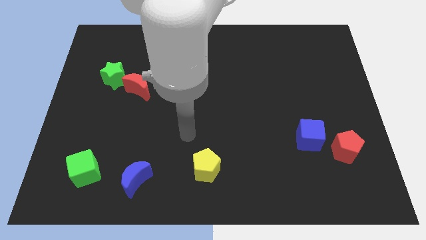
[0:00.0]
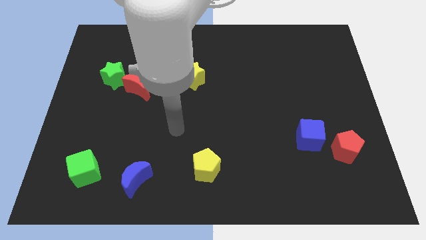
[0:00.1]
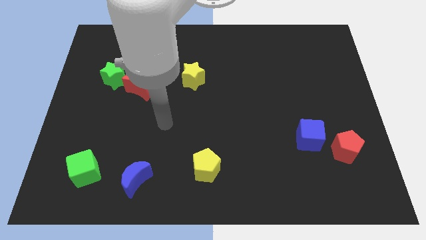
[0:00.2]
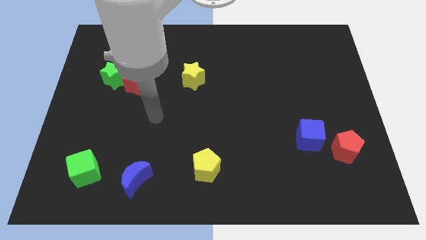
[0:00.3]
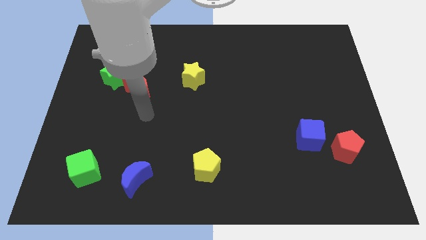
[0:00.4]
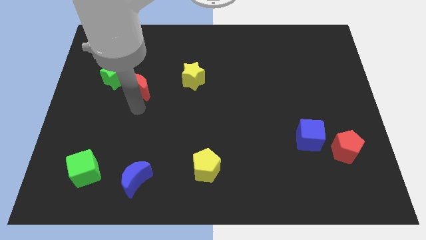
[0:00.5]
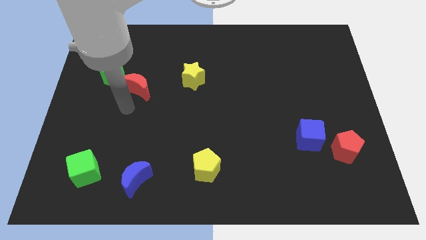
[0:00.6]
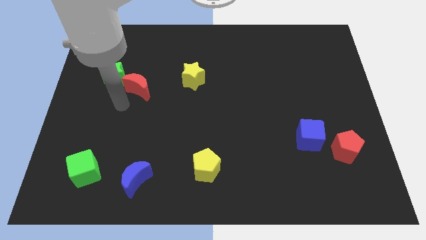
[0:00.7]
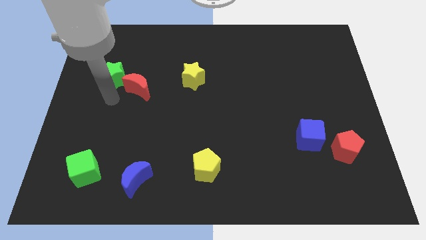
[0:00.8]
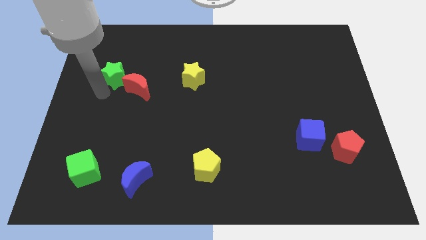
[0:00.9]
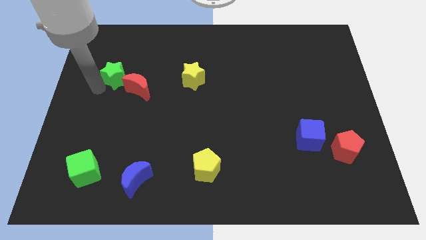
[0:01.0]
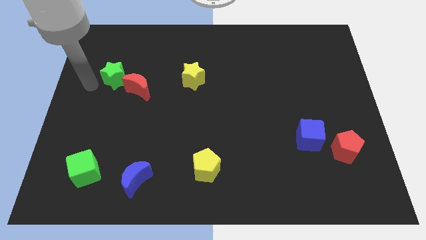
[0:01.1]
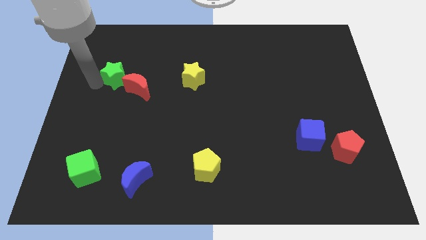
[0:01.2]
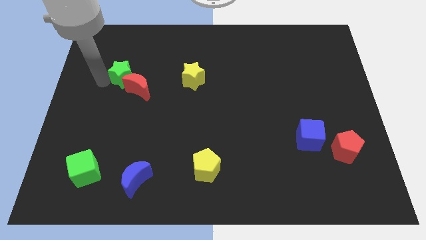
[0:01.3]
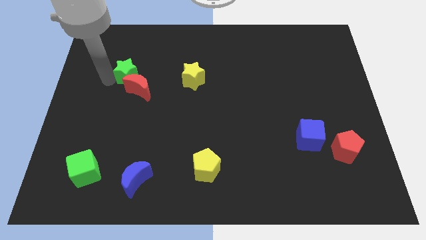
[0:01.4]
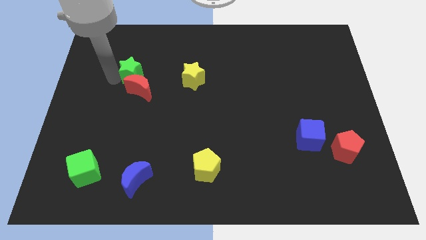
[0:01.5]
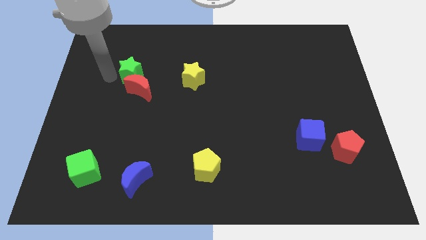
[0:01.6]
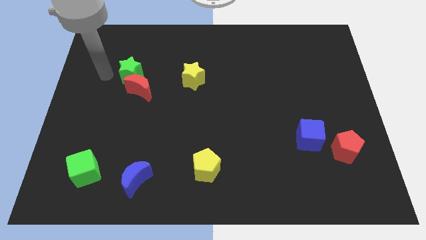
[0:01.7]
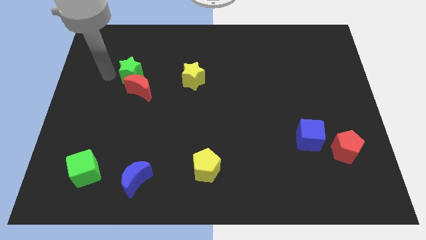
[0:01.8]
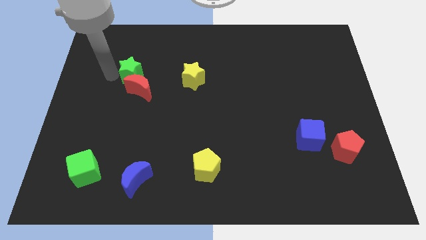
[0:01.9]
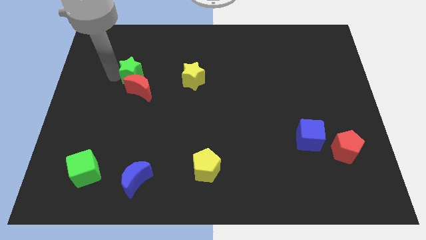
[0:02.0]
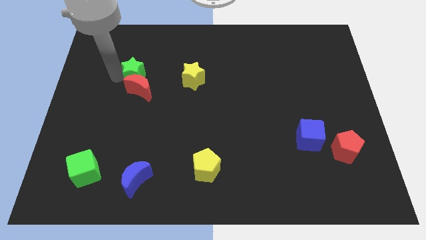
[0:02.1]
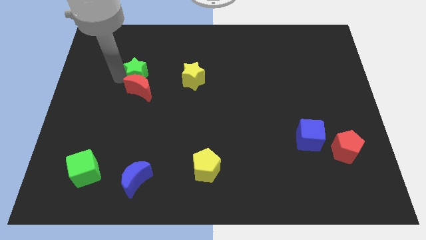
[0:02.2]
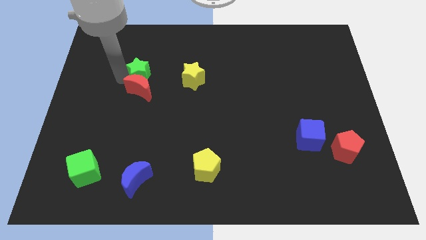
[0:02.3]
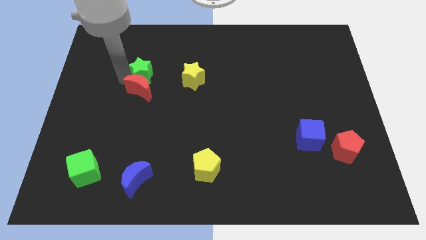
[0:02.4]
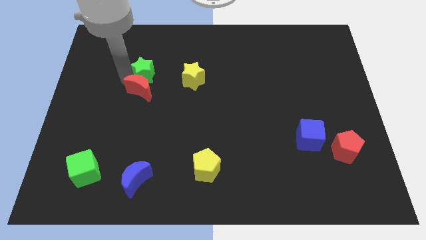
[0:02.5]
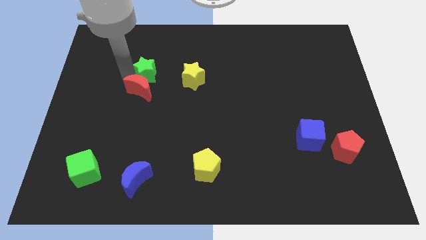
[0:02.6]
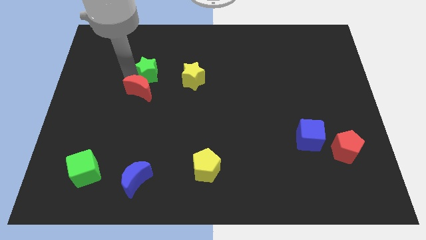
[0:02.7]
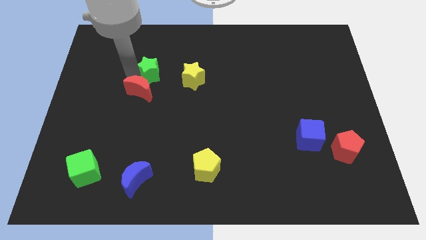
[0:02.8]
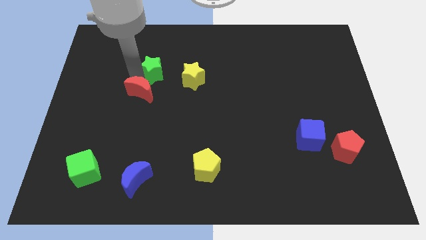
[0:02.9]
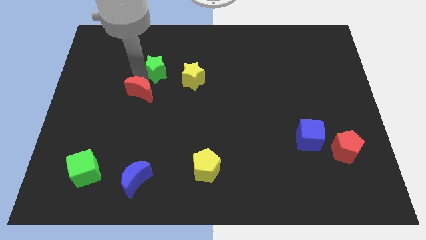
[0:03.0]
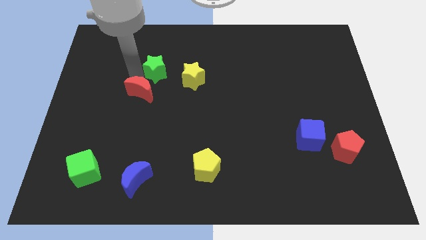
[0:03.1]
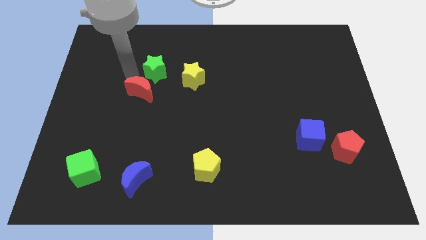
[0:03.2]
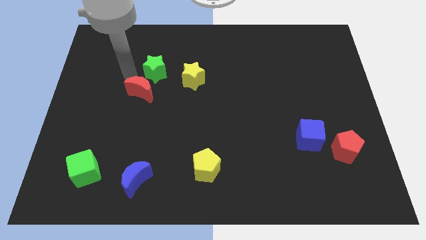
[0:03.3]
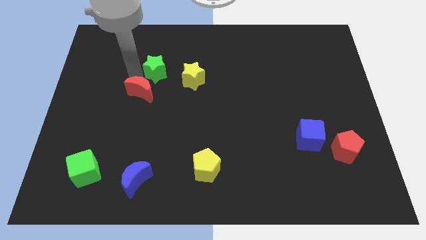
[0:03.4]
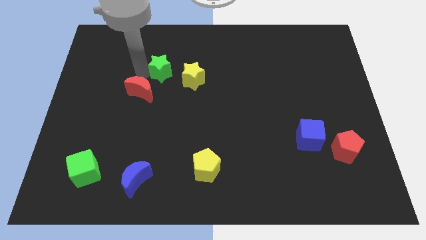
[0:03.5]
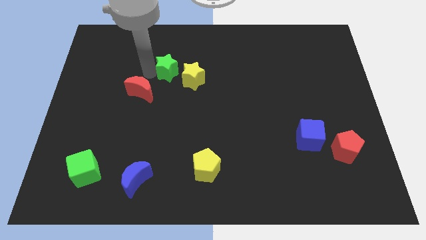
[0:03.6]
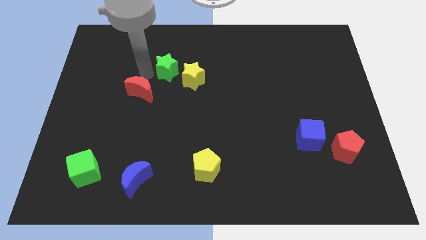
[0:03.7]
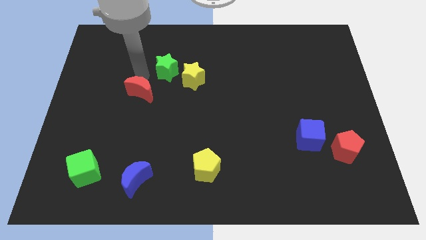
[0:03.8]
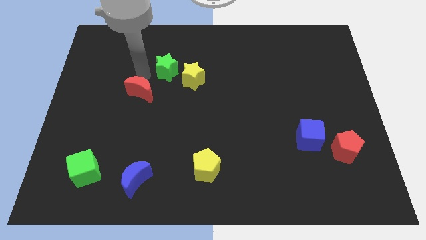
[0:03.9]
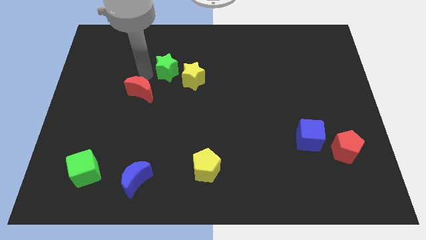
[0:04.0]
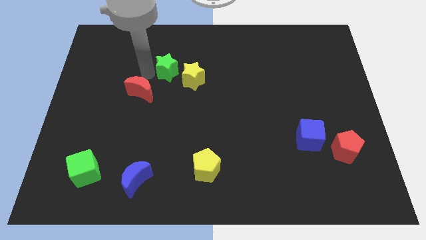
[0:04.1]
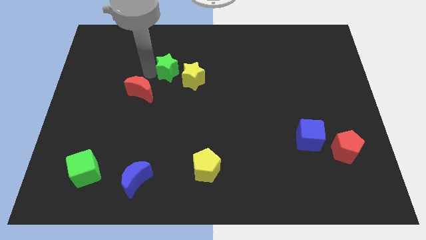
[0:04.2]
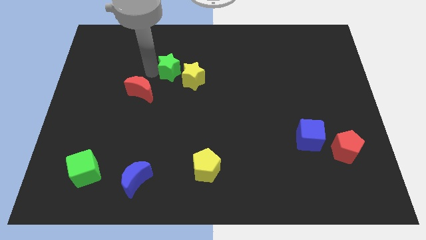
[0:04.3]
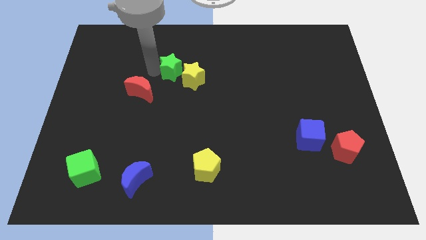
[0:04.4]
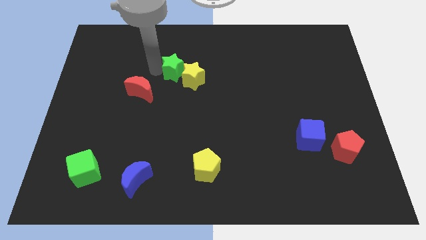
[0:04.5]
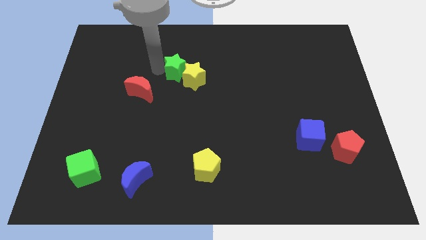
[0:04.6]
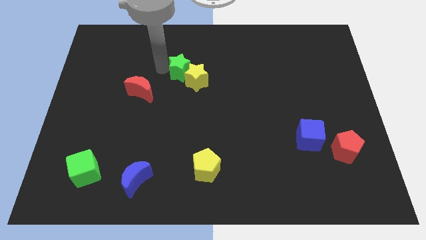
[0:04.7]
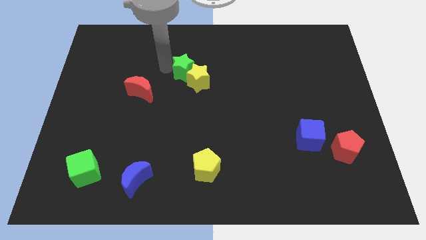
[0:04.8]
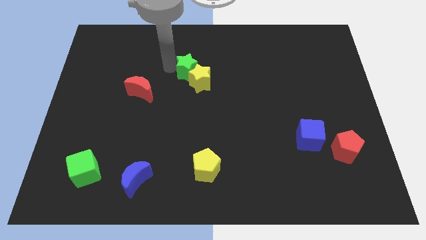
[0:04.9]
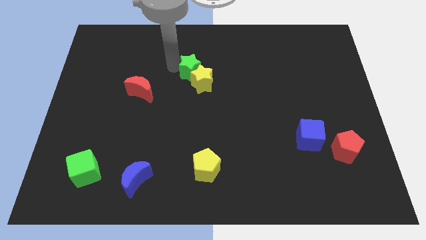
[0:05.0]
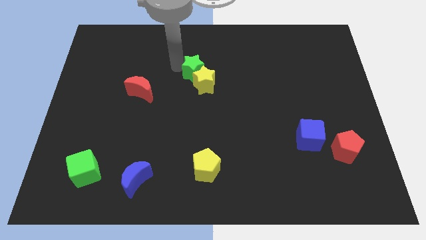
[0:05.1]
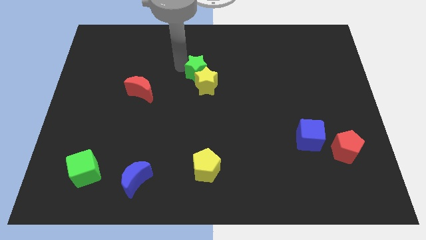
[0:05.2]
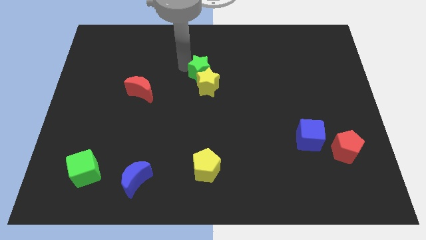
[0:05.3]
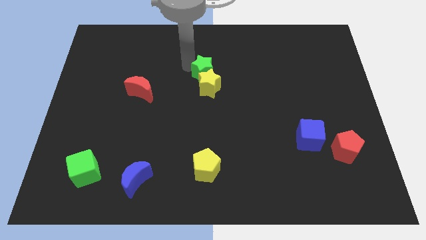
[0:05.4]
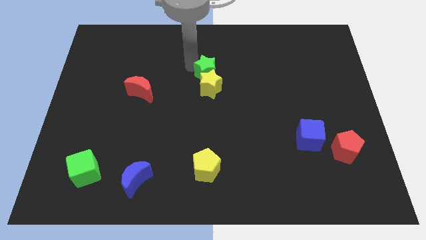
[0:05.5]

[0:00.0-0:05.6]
put the green star to the top right side of the yellow star

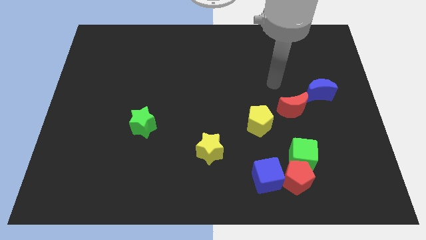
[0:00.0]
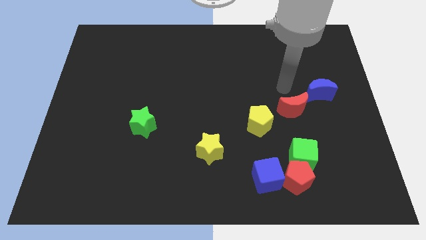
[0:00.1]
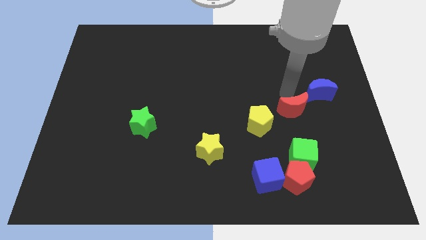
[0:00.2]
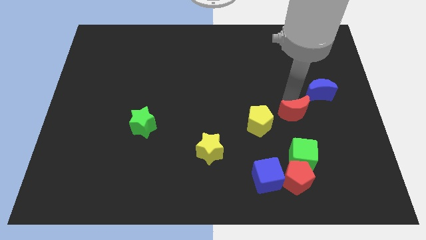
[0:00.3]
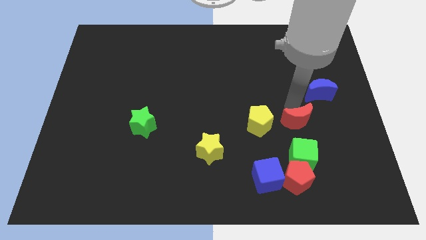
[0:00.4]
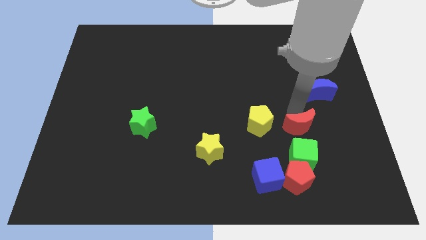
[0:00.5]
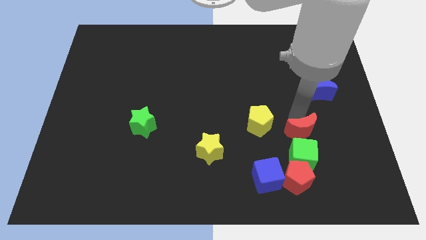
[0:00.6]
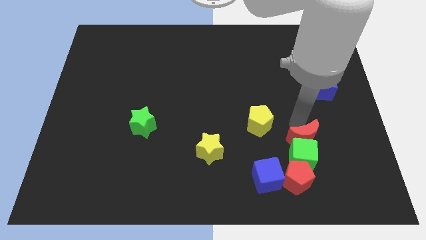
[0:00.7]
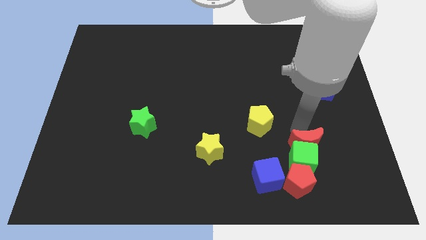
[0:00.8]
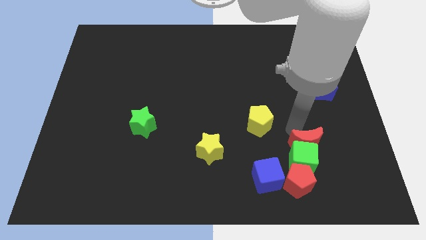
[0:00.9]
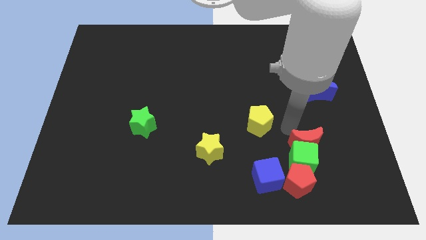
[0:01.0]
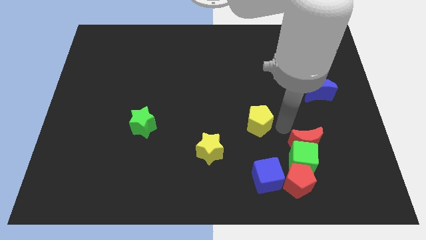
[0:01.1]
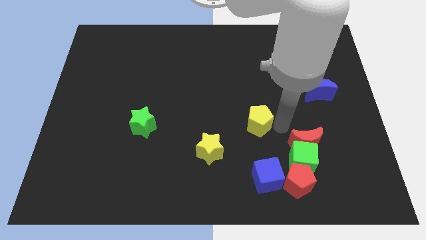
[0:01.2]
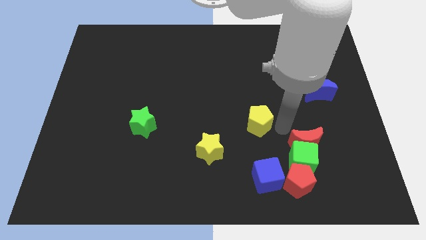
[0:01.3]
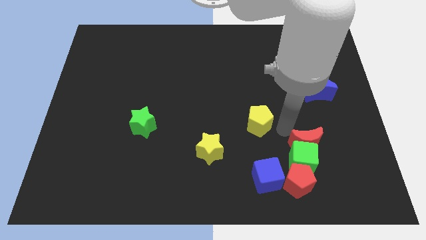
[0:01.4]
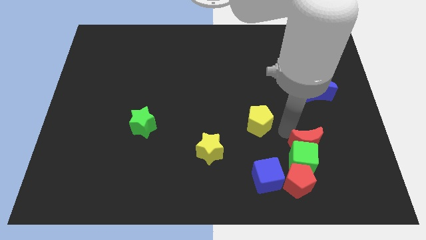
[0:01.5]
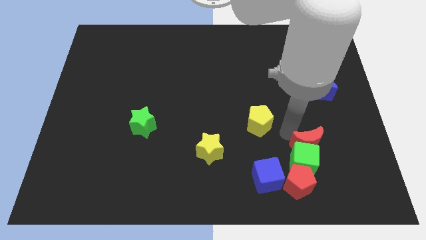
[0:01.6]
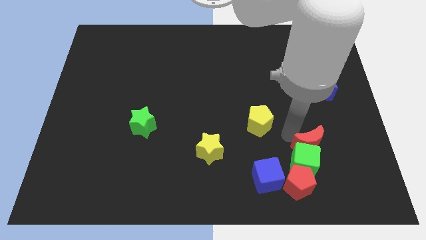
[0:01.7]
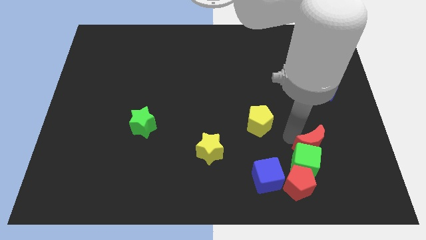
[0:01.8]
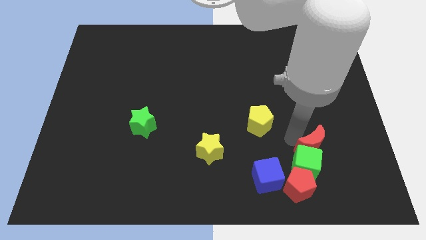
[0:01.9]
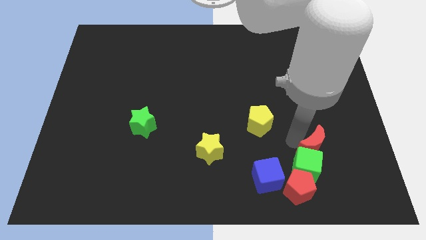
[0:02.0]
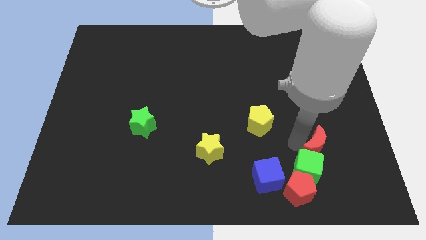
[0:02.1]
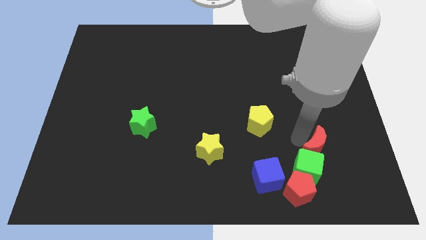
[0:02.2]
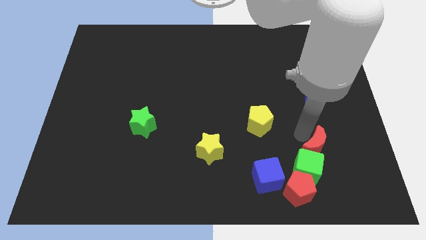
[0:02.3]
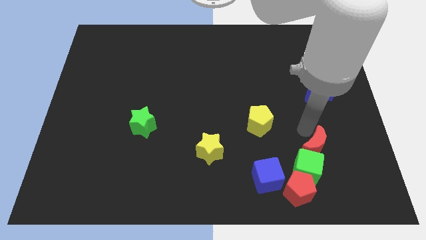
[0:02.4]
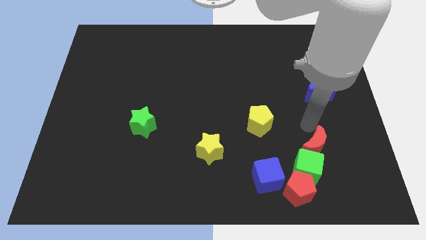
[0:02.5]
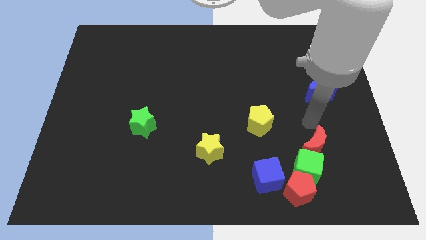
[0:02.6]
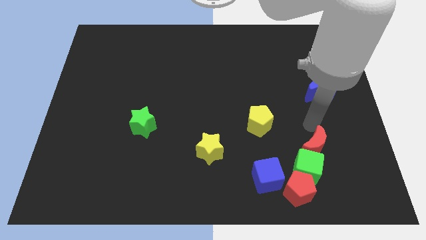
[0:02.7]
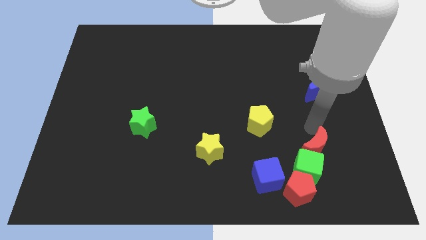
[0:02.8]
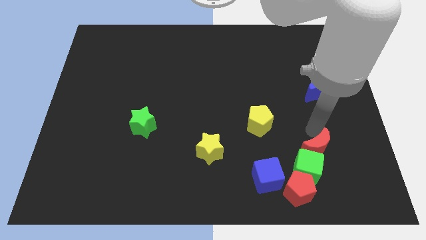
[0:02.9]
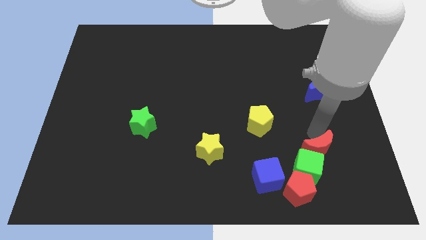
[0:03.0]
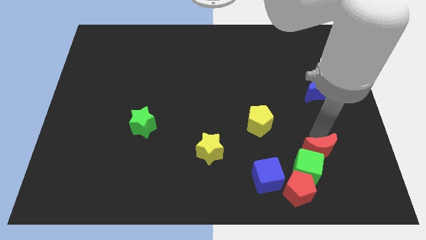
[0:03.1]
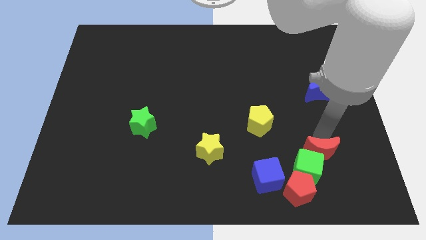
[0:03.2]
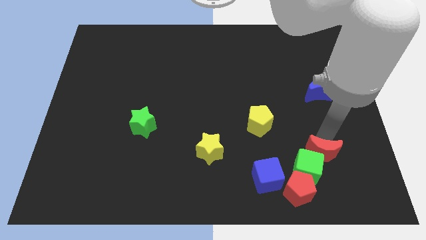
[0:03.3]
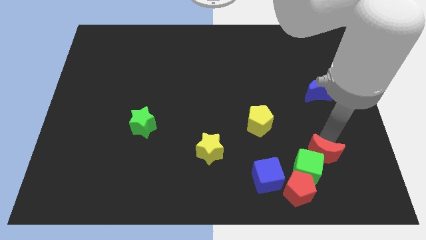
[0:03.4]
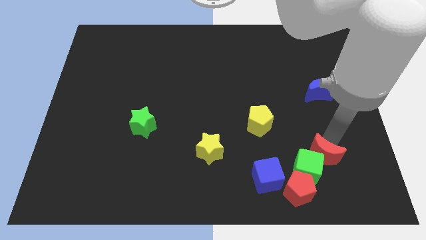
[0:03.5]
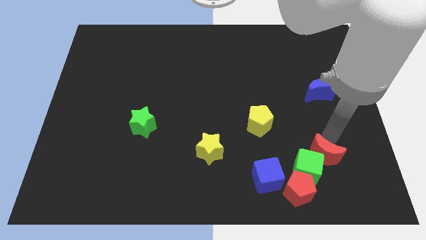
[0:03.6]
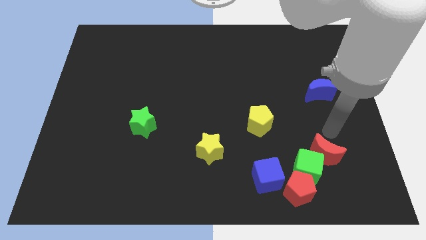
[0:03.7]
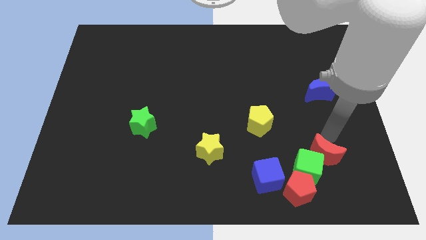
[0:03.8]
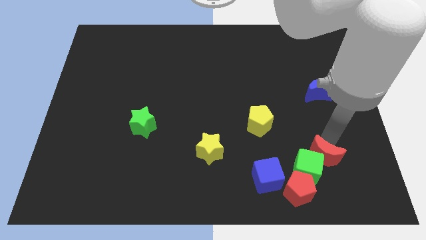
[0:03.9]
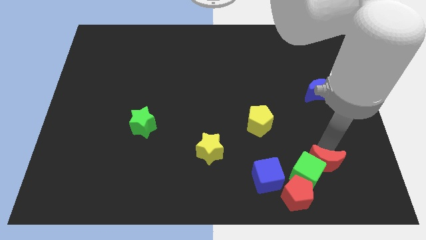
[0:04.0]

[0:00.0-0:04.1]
slide the red moon just right of the blue cube
